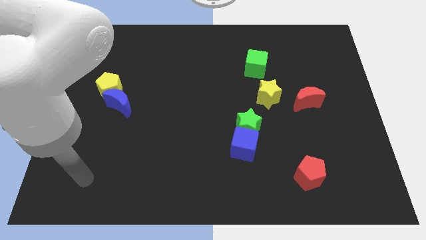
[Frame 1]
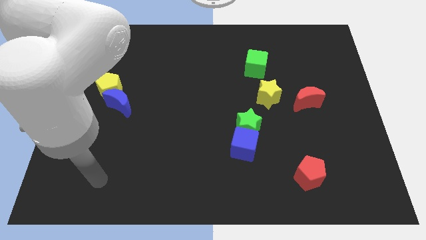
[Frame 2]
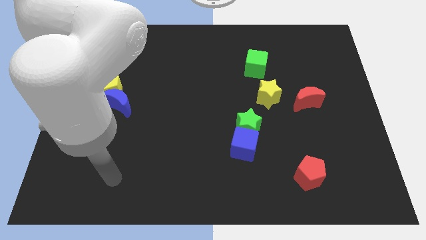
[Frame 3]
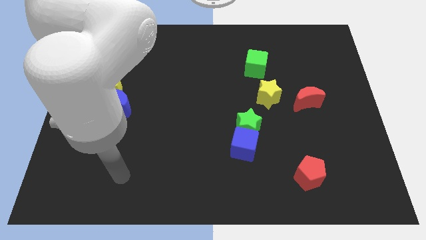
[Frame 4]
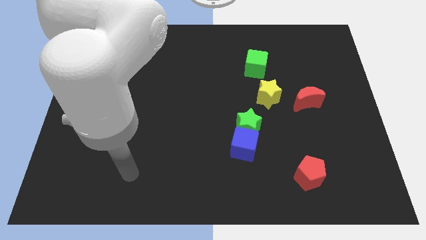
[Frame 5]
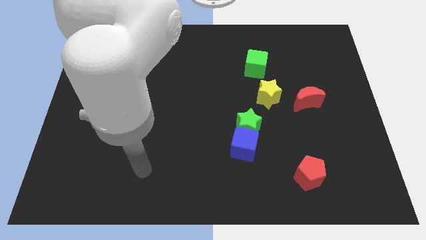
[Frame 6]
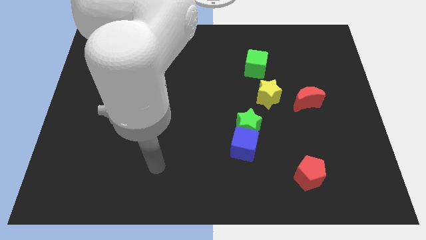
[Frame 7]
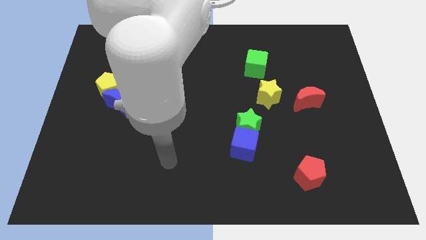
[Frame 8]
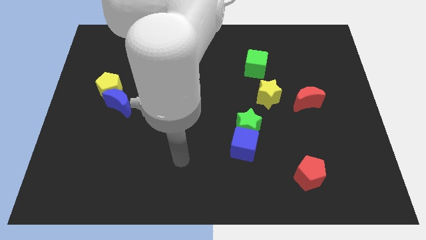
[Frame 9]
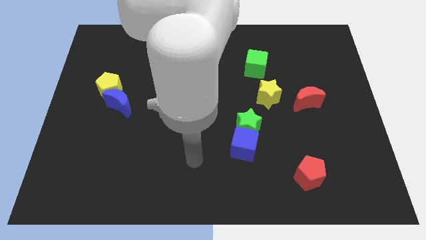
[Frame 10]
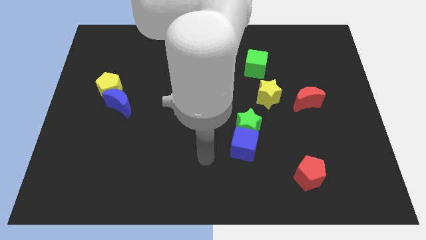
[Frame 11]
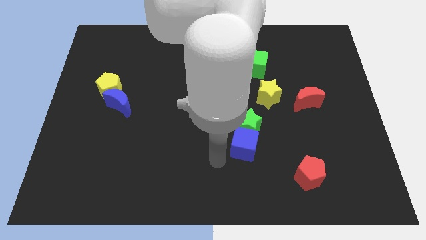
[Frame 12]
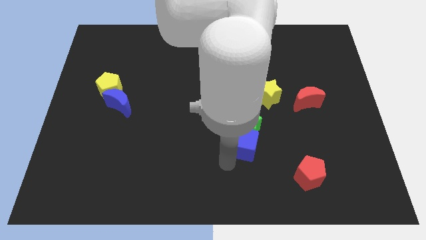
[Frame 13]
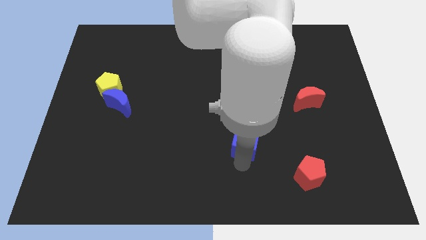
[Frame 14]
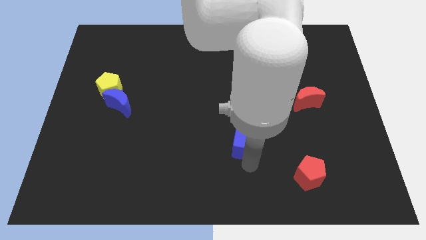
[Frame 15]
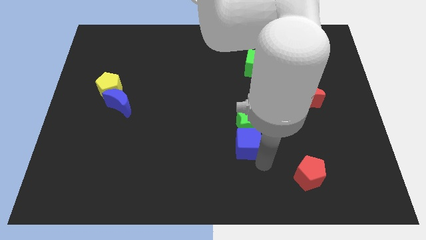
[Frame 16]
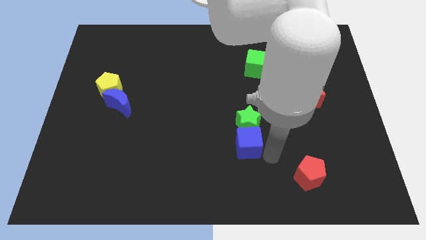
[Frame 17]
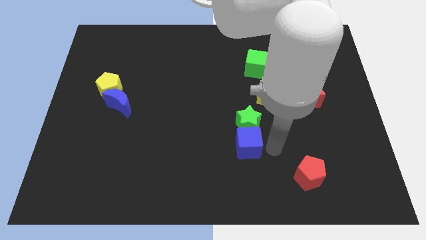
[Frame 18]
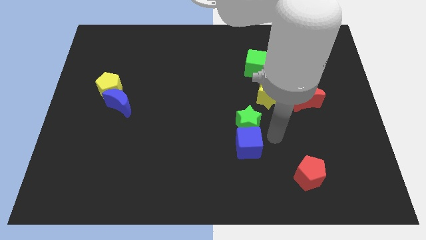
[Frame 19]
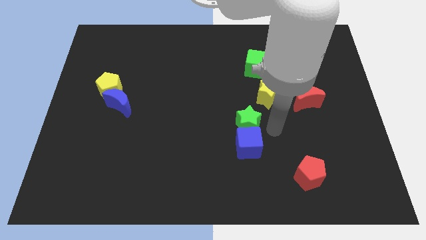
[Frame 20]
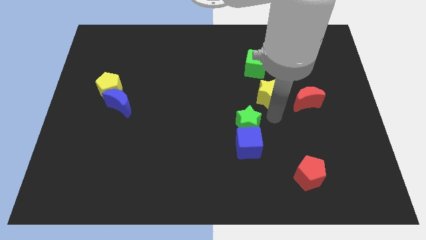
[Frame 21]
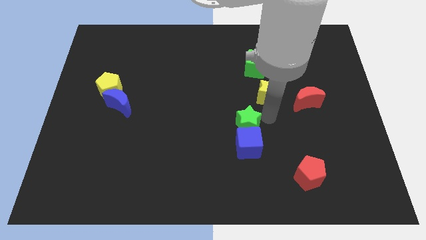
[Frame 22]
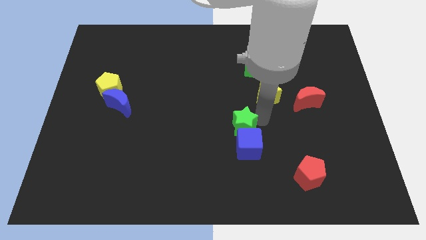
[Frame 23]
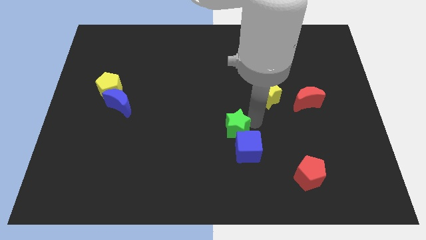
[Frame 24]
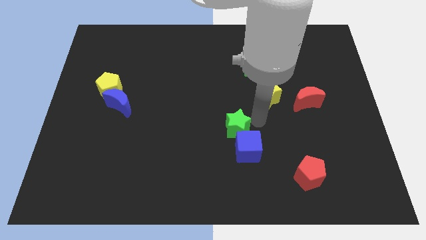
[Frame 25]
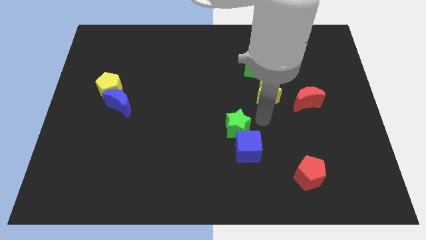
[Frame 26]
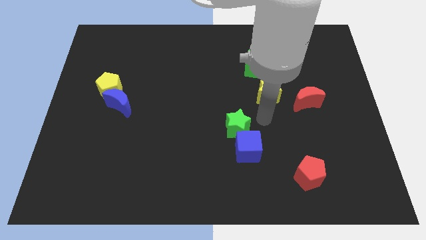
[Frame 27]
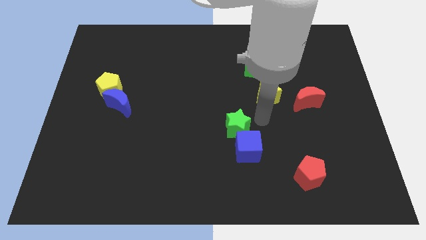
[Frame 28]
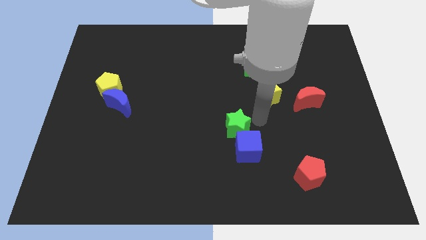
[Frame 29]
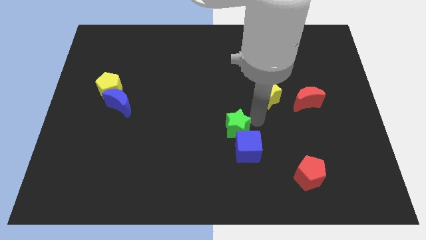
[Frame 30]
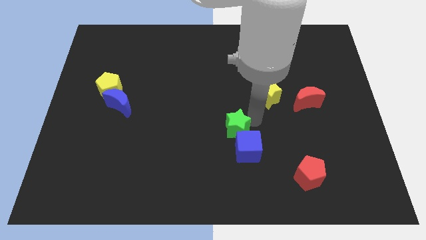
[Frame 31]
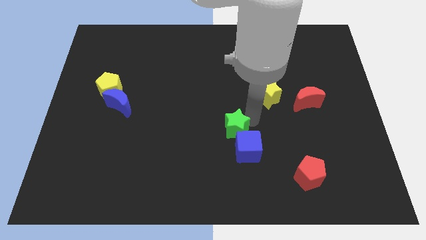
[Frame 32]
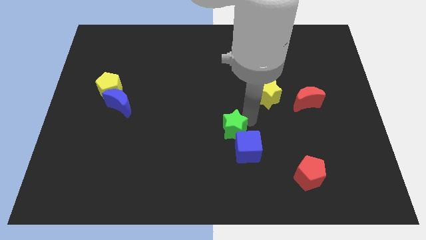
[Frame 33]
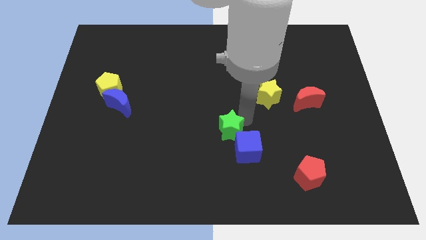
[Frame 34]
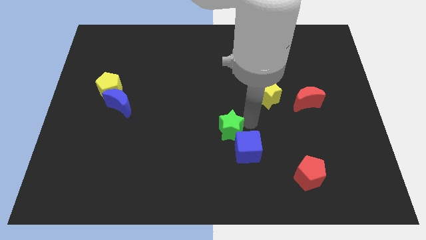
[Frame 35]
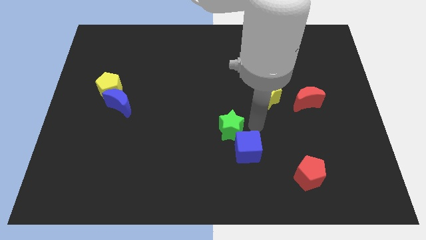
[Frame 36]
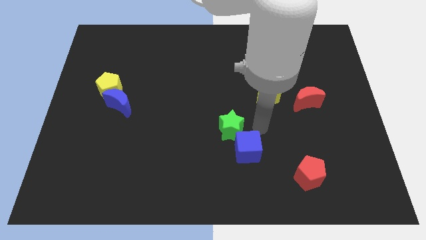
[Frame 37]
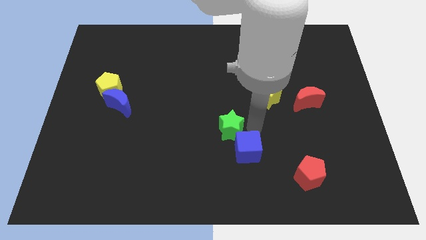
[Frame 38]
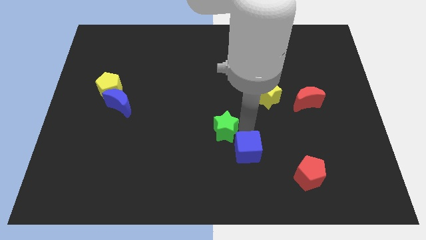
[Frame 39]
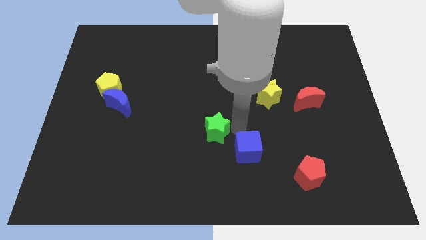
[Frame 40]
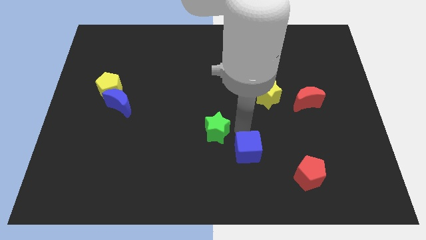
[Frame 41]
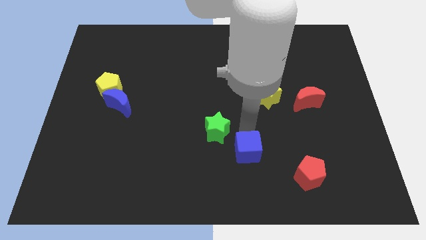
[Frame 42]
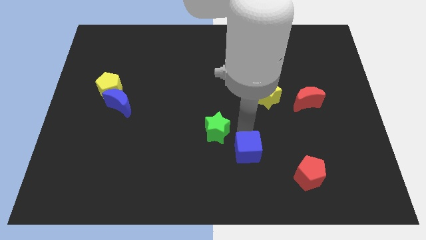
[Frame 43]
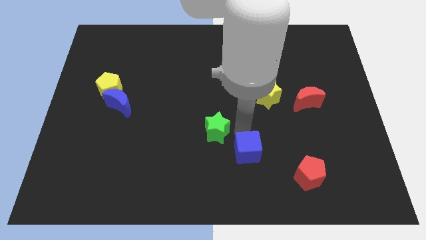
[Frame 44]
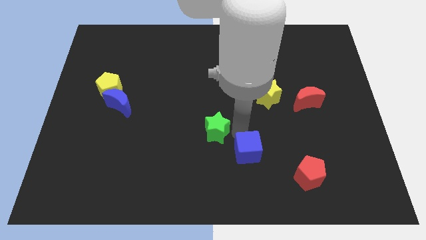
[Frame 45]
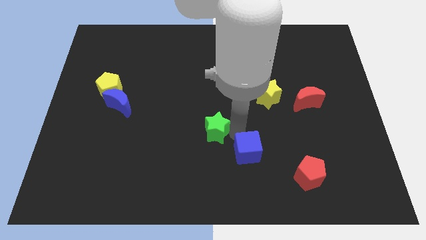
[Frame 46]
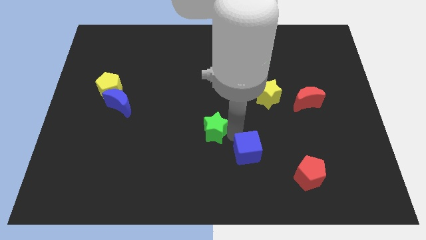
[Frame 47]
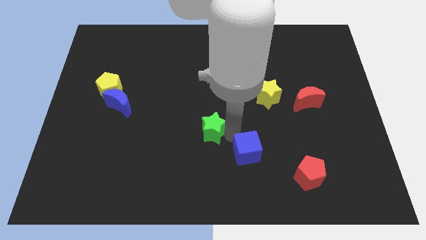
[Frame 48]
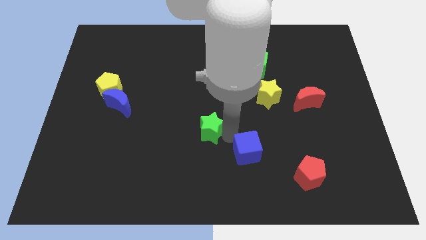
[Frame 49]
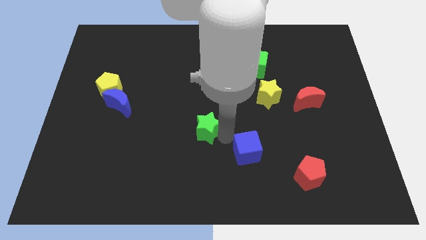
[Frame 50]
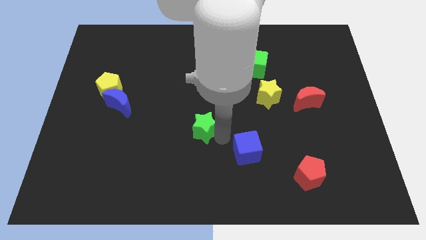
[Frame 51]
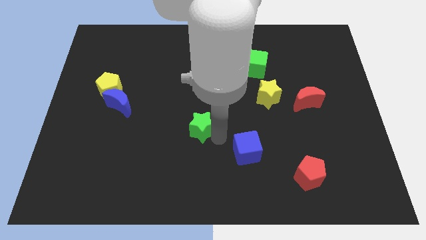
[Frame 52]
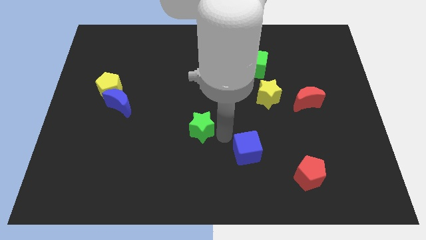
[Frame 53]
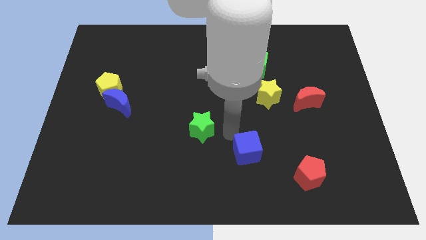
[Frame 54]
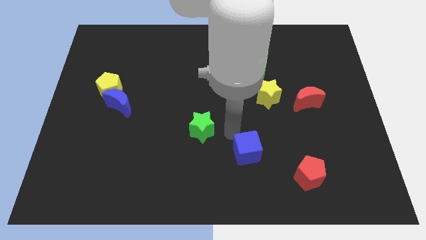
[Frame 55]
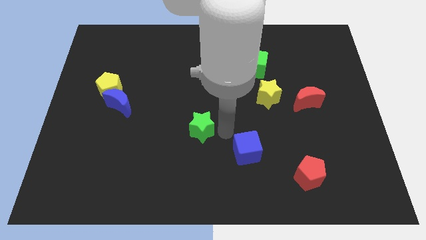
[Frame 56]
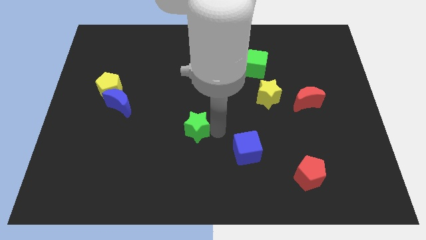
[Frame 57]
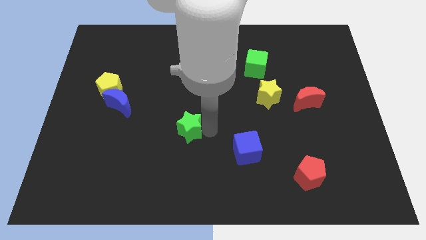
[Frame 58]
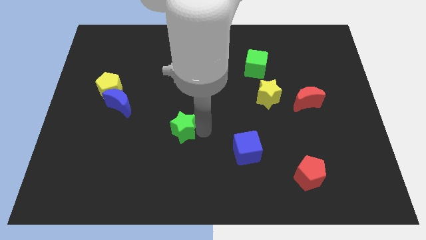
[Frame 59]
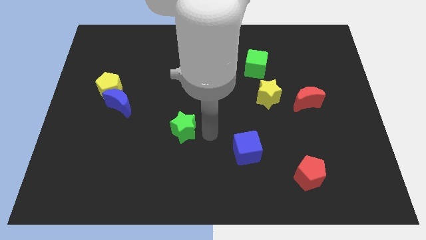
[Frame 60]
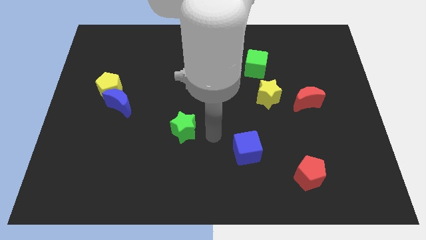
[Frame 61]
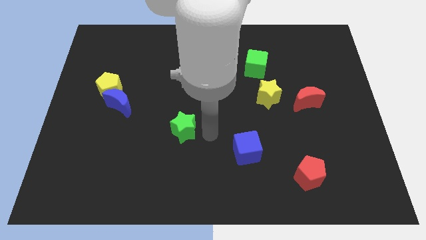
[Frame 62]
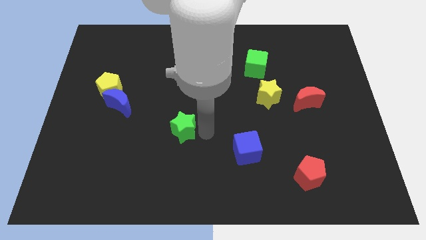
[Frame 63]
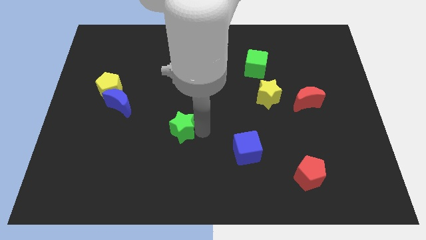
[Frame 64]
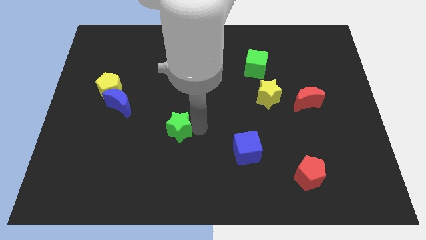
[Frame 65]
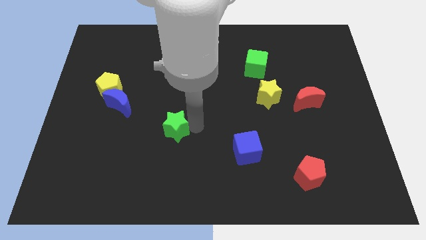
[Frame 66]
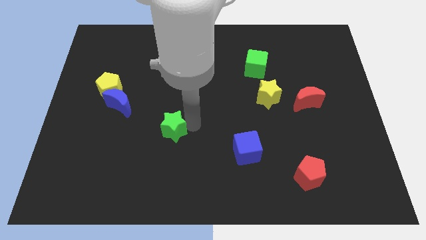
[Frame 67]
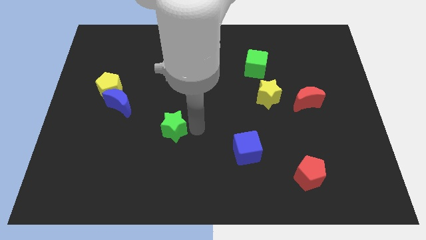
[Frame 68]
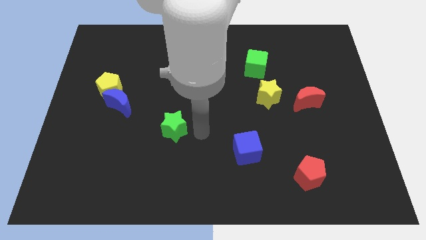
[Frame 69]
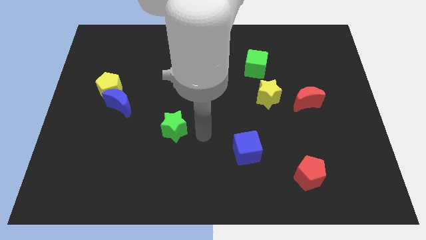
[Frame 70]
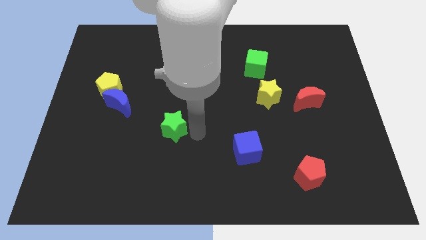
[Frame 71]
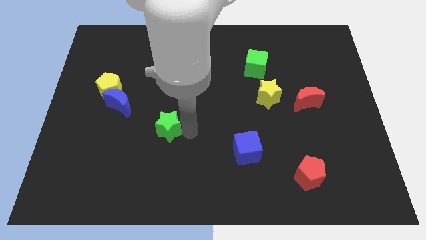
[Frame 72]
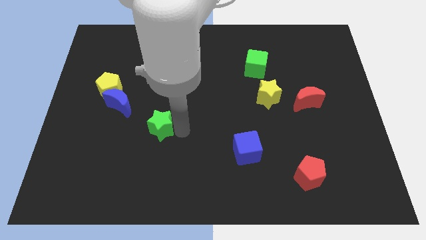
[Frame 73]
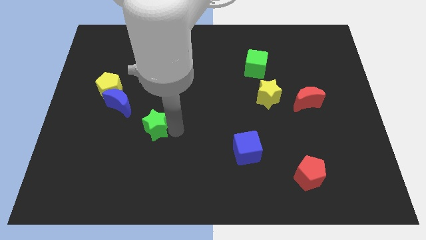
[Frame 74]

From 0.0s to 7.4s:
slide the green star to the left

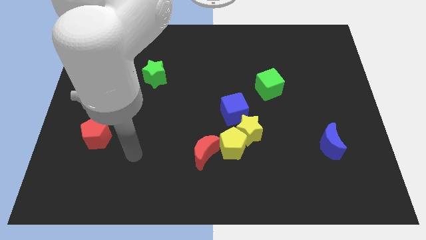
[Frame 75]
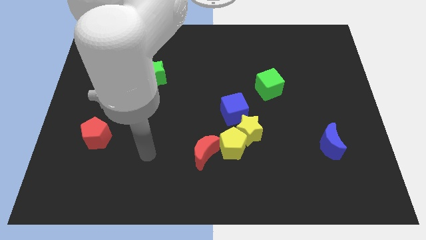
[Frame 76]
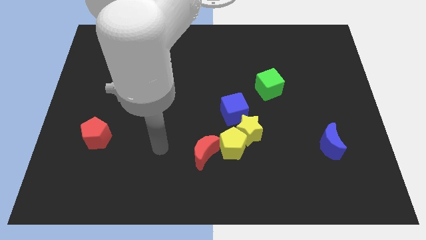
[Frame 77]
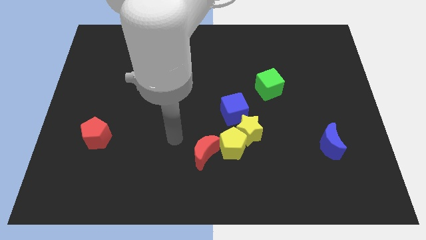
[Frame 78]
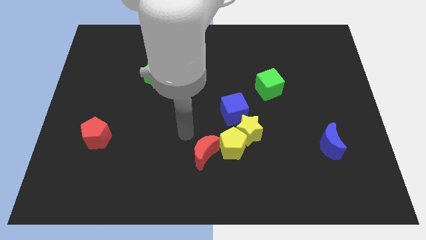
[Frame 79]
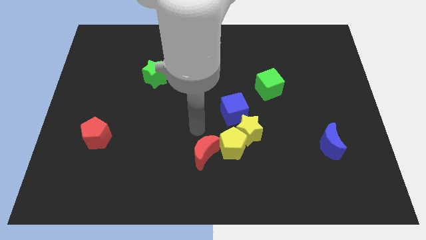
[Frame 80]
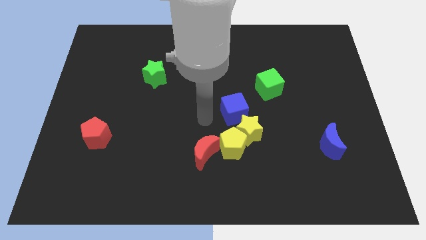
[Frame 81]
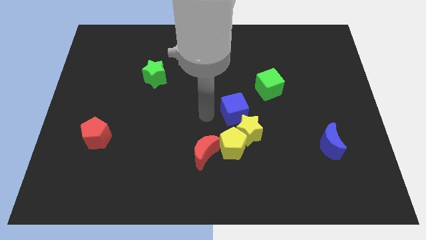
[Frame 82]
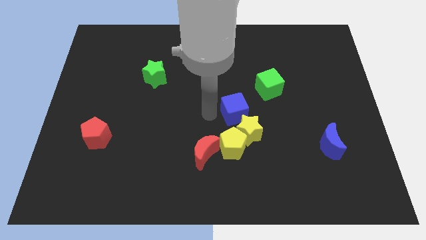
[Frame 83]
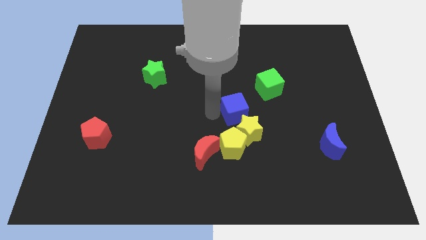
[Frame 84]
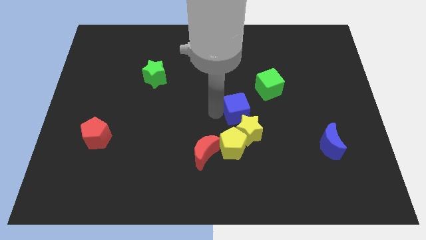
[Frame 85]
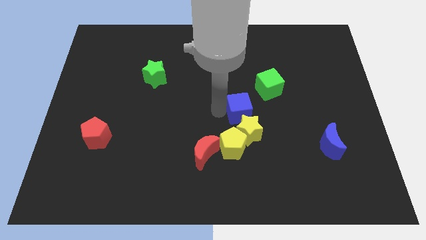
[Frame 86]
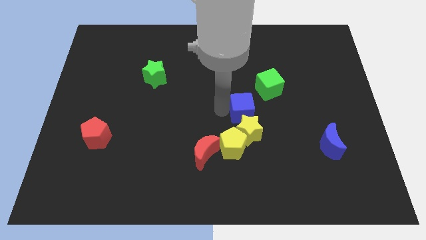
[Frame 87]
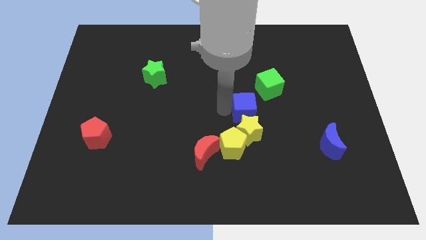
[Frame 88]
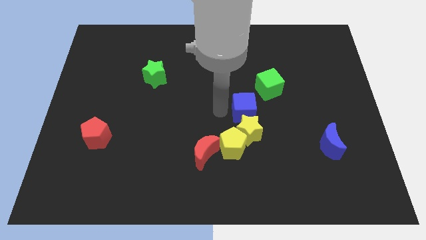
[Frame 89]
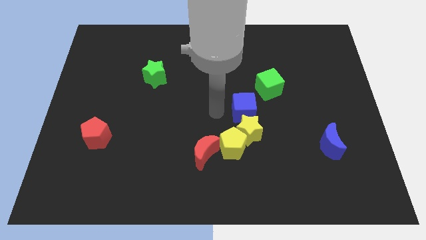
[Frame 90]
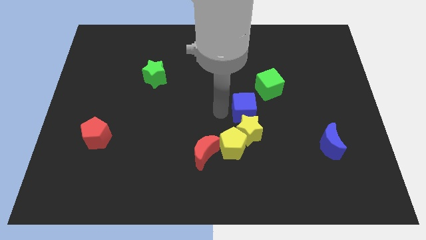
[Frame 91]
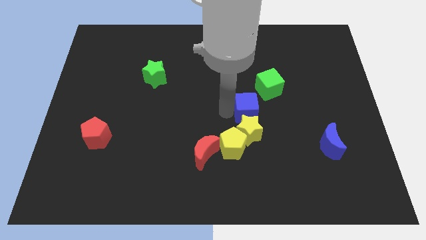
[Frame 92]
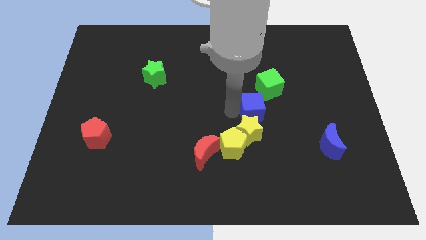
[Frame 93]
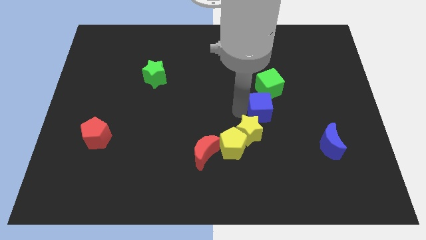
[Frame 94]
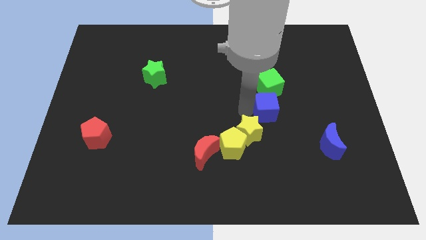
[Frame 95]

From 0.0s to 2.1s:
push the blue cube a little to the right
